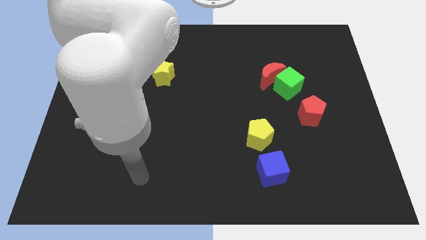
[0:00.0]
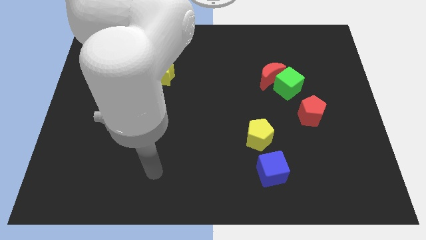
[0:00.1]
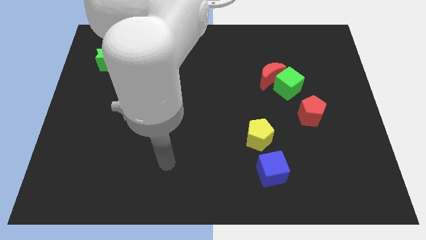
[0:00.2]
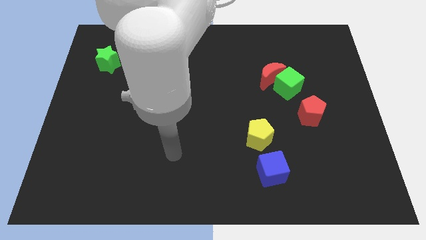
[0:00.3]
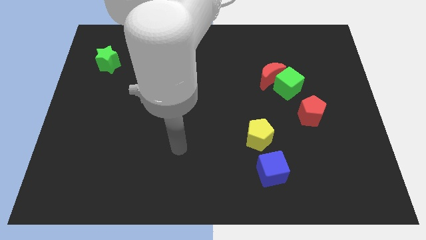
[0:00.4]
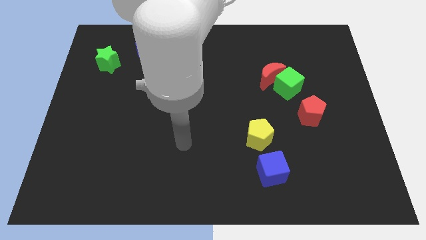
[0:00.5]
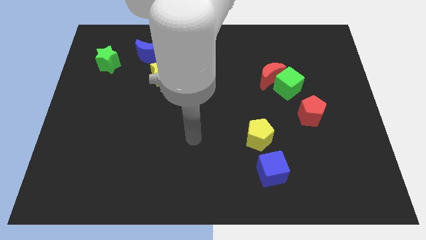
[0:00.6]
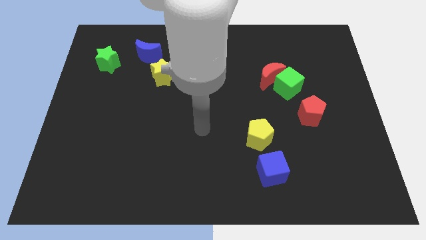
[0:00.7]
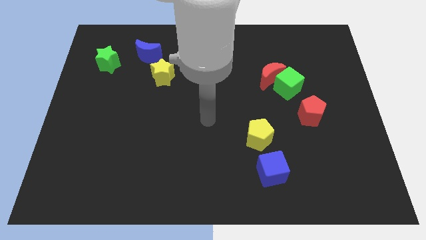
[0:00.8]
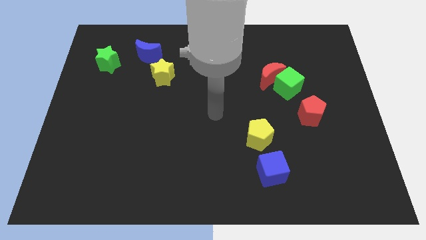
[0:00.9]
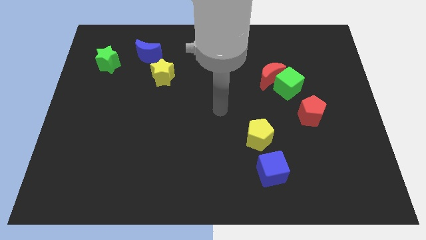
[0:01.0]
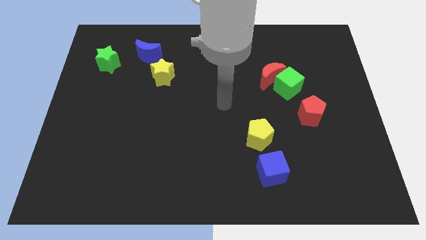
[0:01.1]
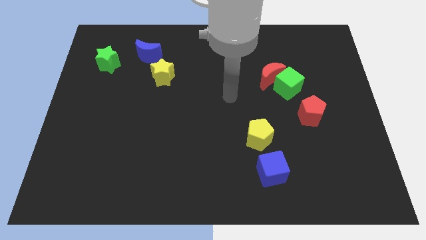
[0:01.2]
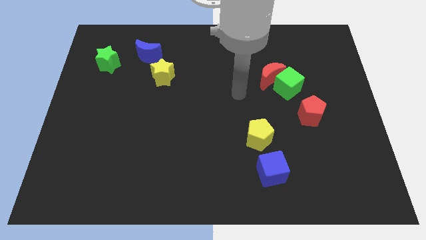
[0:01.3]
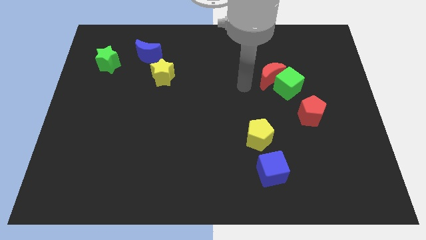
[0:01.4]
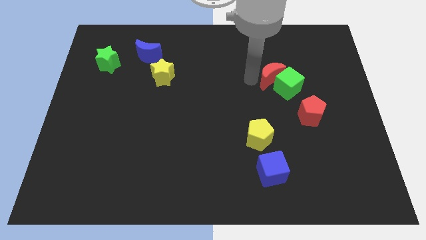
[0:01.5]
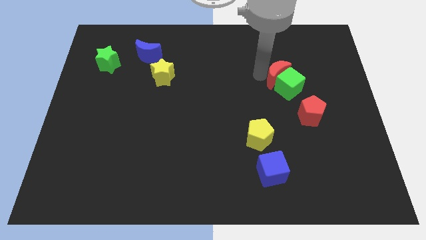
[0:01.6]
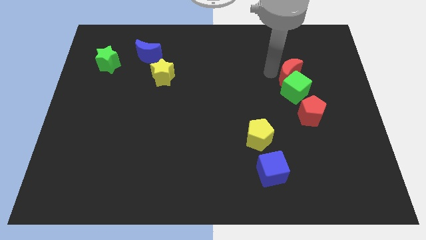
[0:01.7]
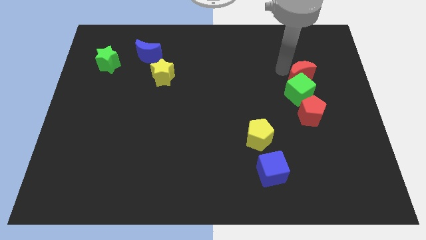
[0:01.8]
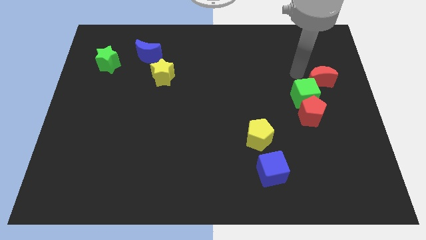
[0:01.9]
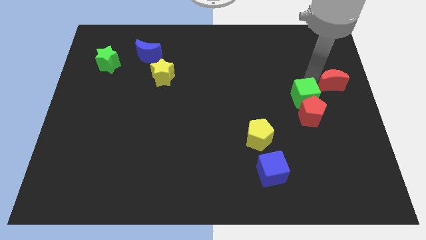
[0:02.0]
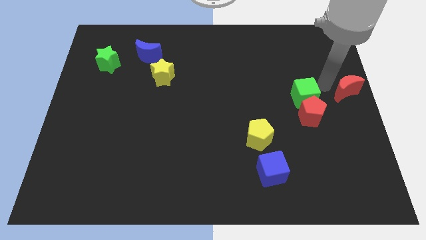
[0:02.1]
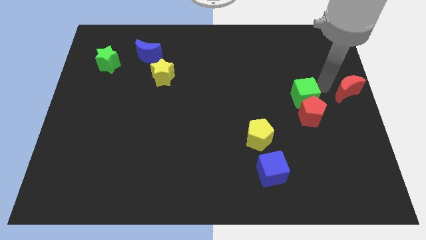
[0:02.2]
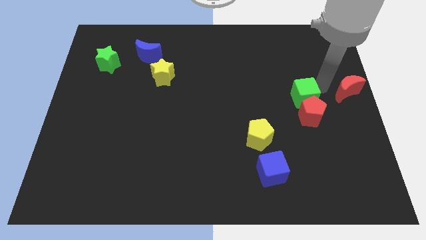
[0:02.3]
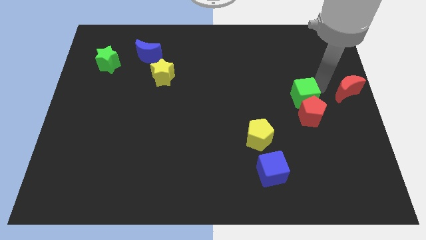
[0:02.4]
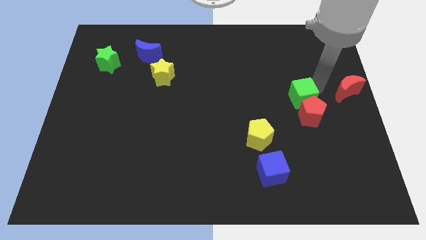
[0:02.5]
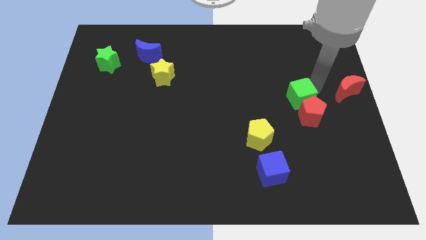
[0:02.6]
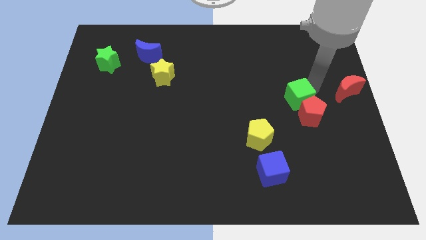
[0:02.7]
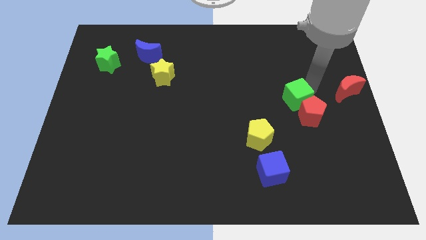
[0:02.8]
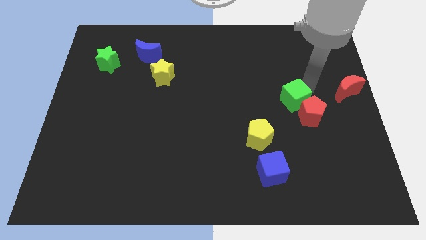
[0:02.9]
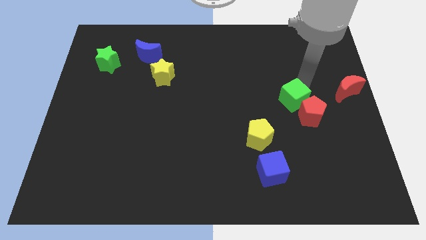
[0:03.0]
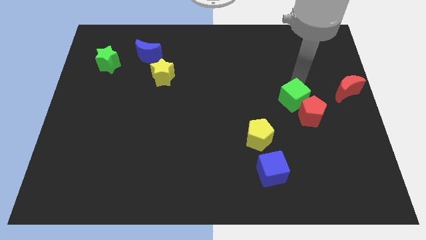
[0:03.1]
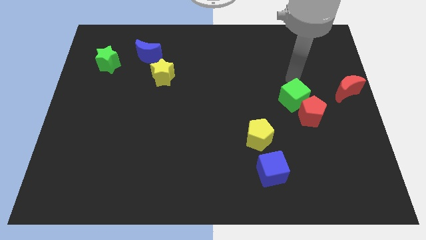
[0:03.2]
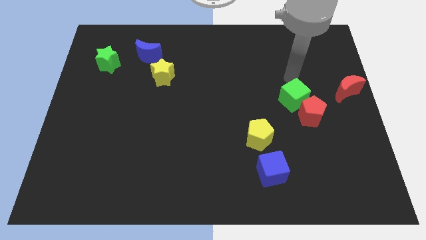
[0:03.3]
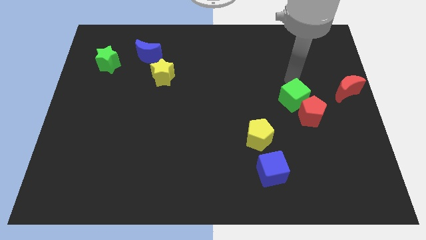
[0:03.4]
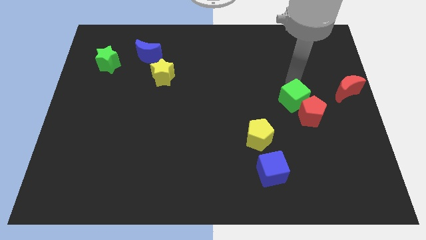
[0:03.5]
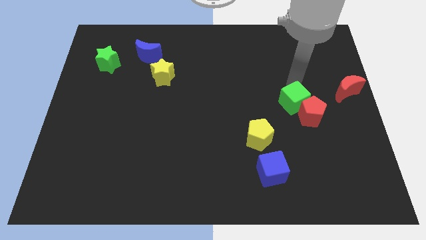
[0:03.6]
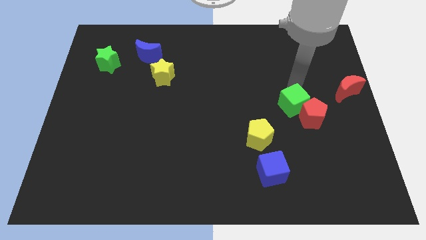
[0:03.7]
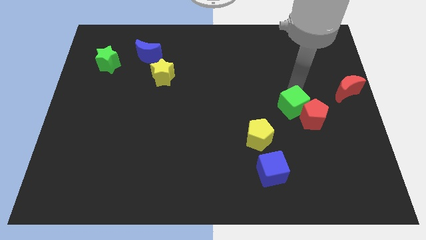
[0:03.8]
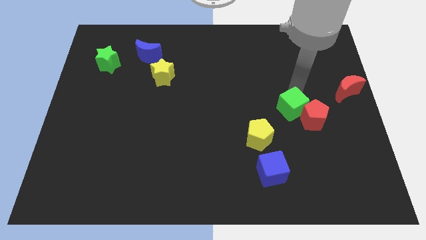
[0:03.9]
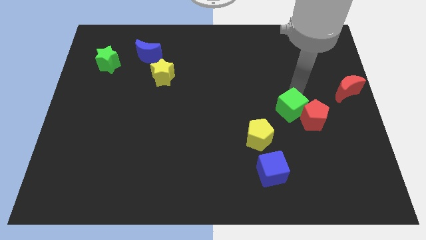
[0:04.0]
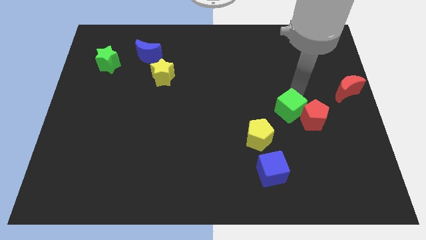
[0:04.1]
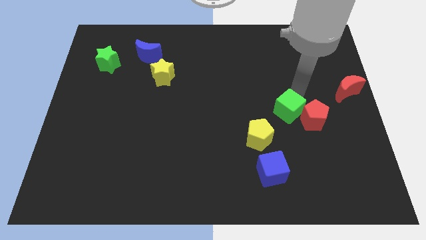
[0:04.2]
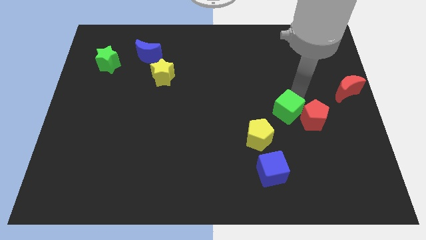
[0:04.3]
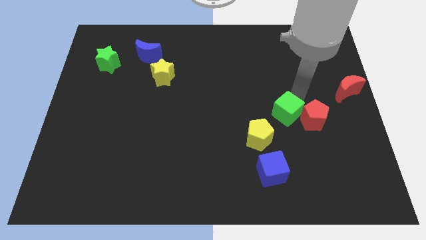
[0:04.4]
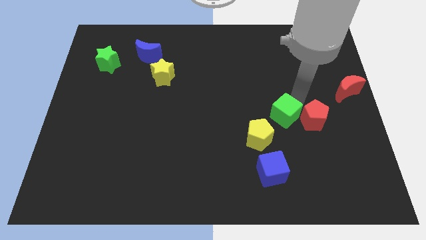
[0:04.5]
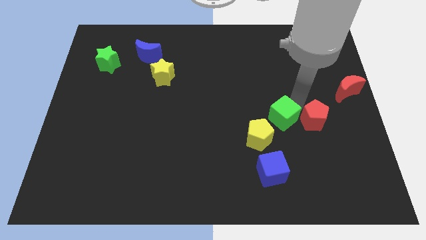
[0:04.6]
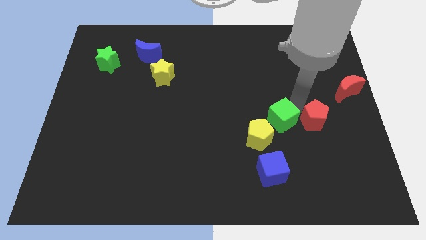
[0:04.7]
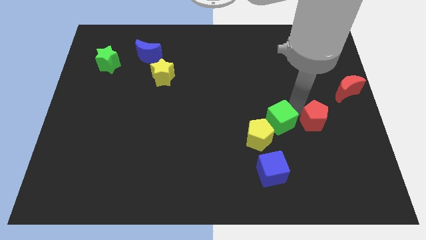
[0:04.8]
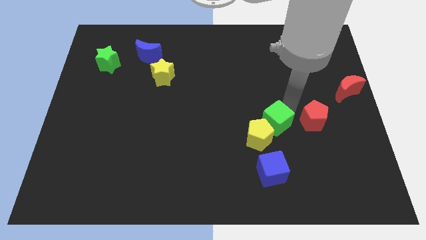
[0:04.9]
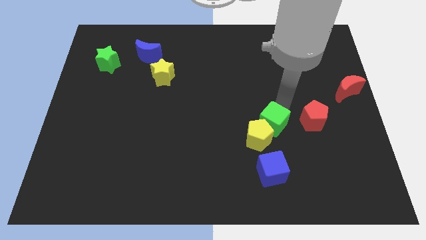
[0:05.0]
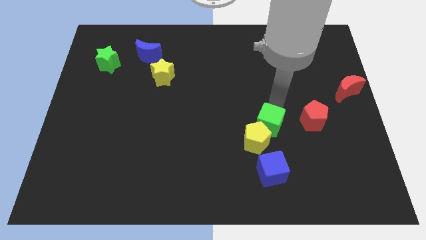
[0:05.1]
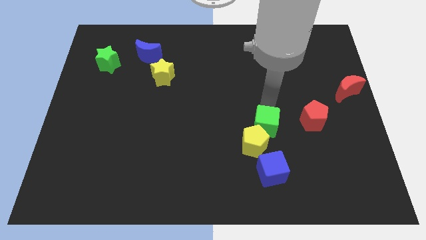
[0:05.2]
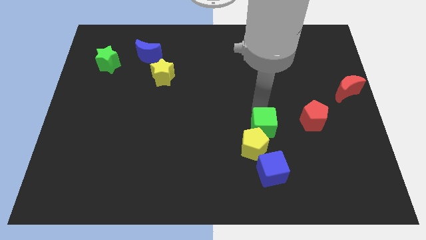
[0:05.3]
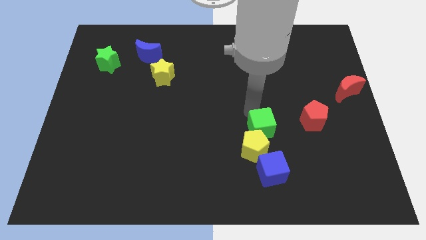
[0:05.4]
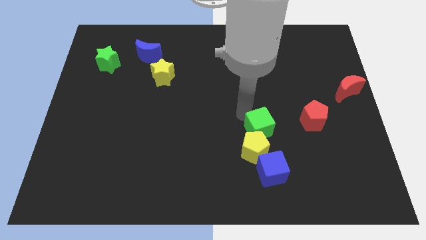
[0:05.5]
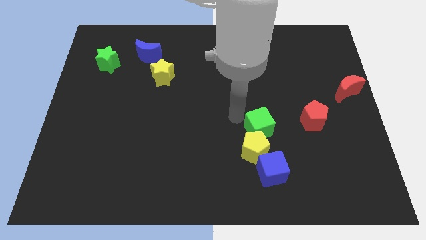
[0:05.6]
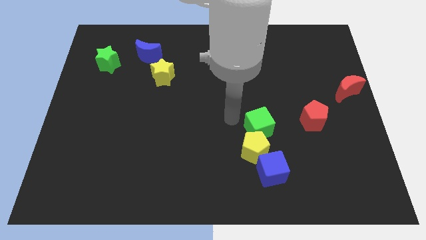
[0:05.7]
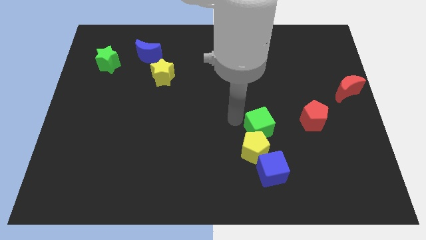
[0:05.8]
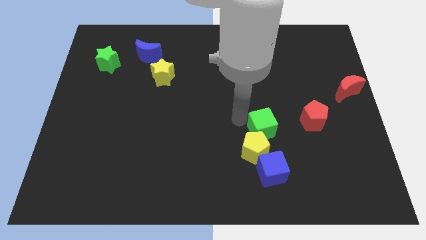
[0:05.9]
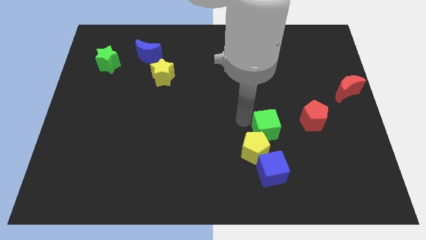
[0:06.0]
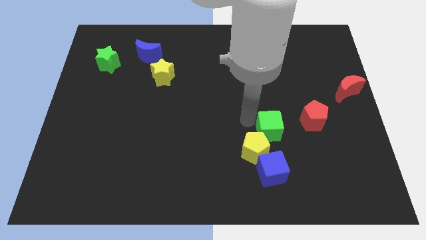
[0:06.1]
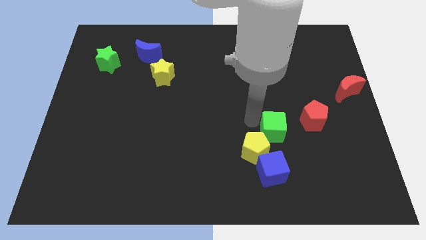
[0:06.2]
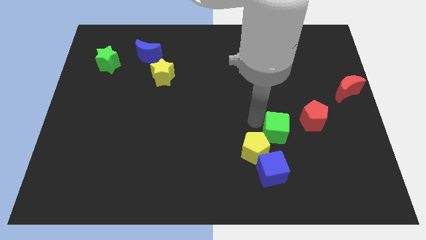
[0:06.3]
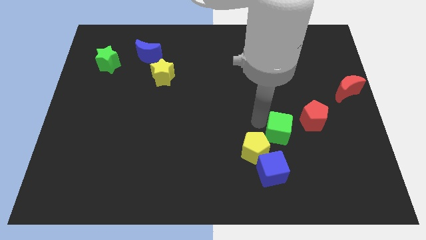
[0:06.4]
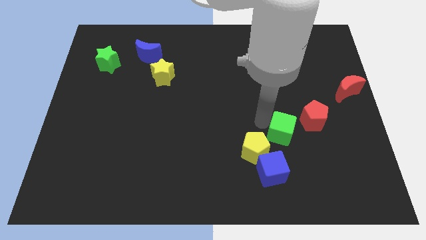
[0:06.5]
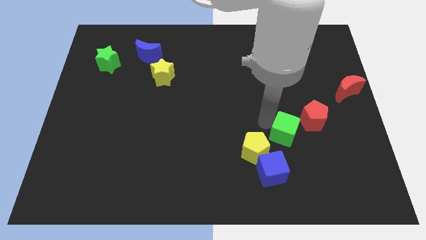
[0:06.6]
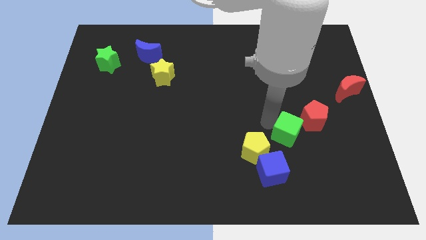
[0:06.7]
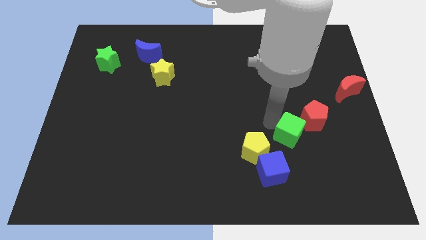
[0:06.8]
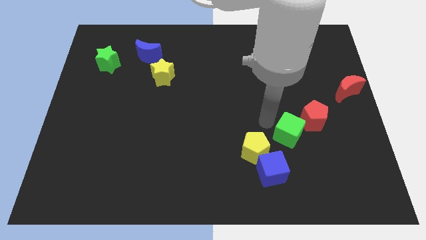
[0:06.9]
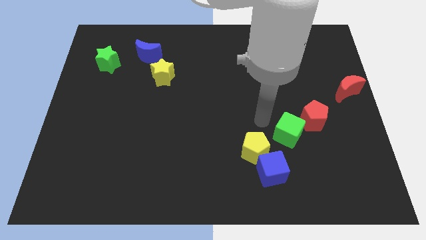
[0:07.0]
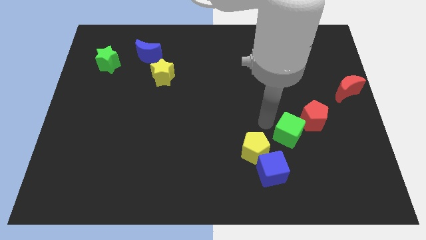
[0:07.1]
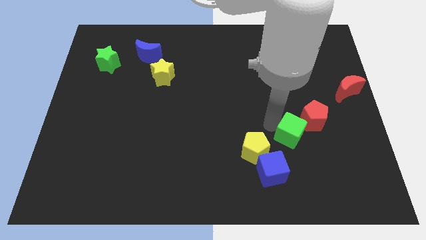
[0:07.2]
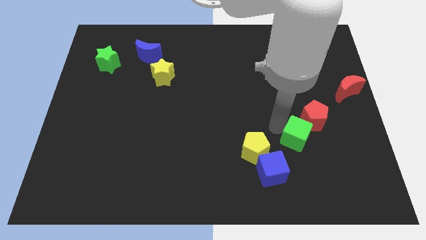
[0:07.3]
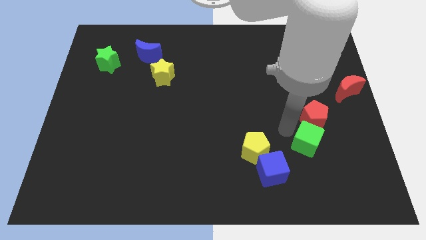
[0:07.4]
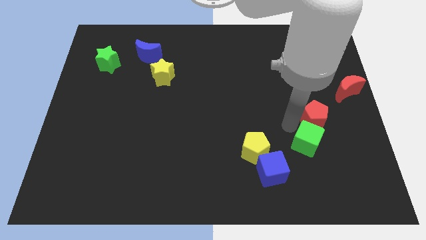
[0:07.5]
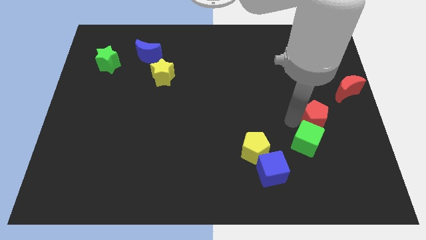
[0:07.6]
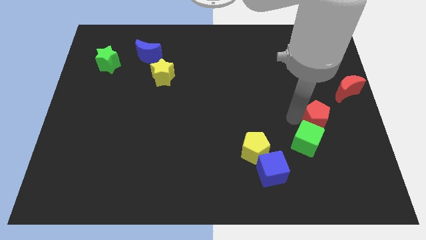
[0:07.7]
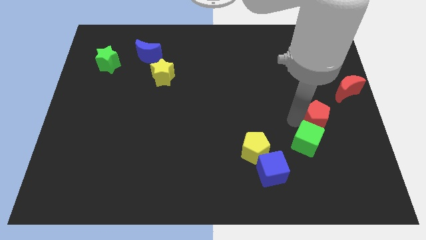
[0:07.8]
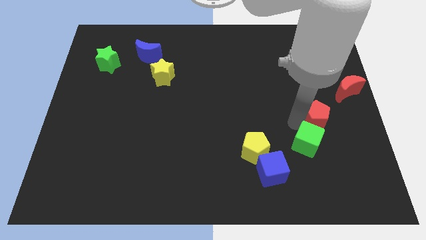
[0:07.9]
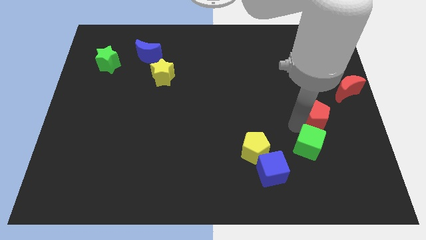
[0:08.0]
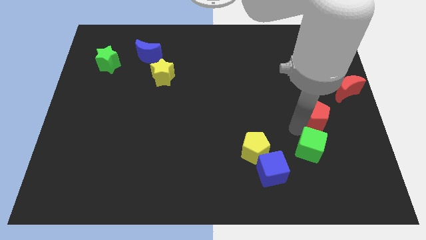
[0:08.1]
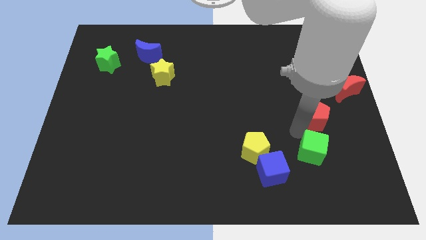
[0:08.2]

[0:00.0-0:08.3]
push the green cube just right of the blue cube
